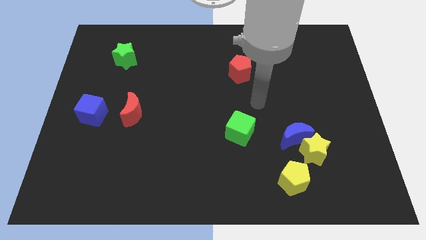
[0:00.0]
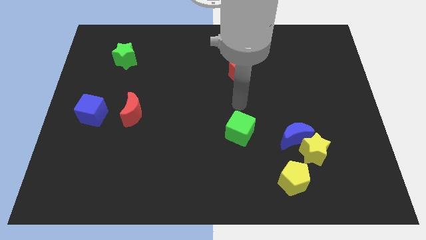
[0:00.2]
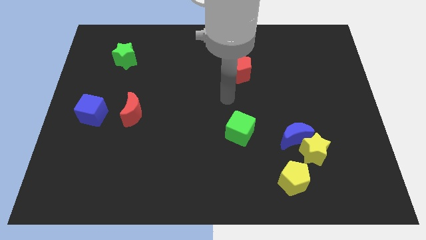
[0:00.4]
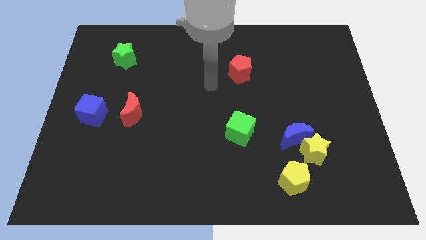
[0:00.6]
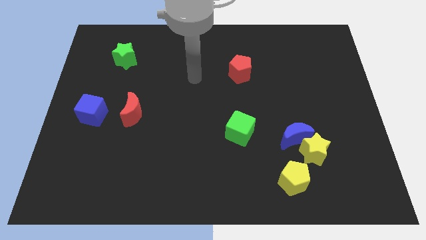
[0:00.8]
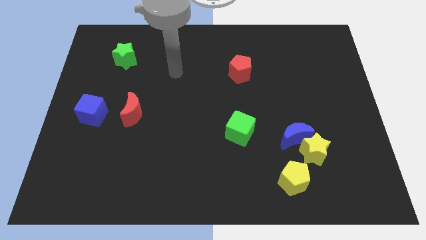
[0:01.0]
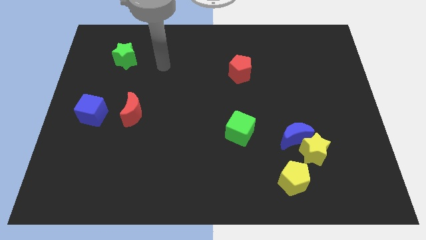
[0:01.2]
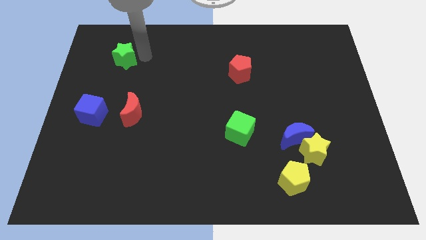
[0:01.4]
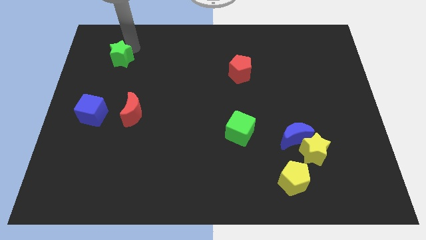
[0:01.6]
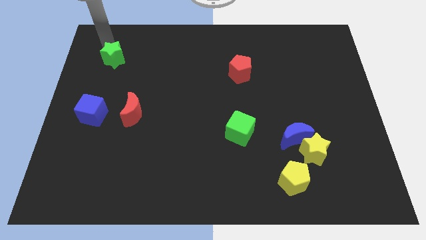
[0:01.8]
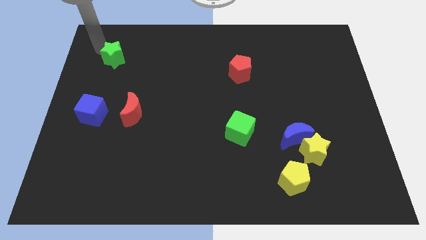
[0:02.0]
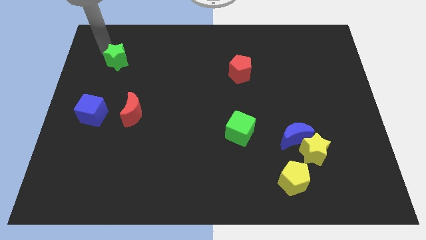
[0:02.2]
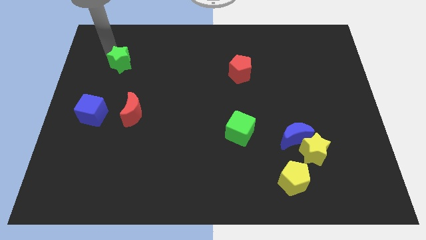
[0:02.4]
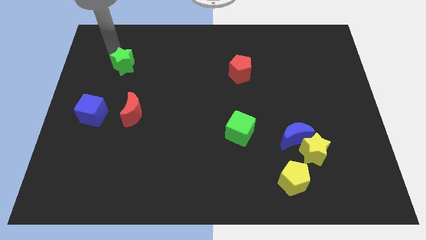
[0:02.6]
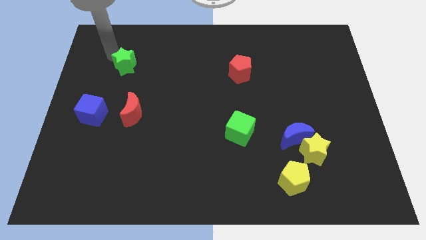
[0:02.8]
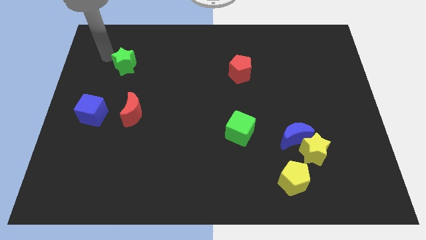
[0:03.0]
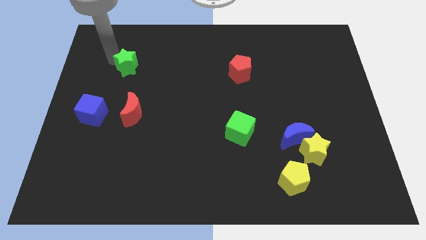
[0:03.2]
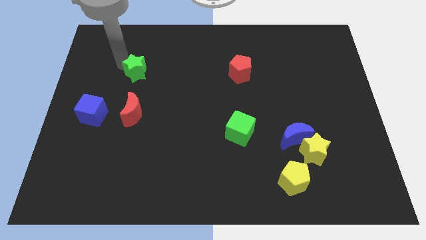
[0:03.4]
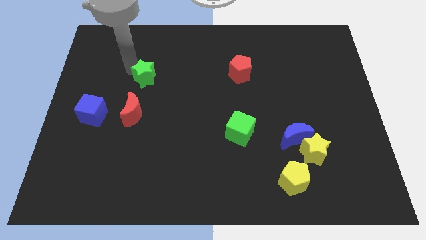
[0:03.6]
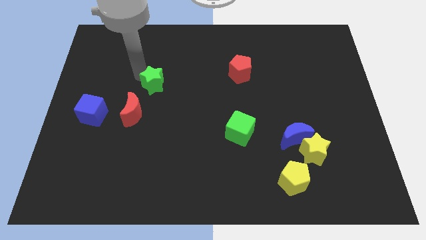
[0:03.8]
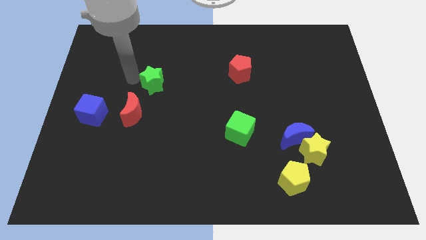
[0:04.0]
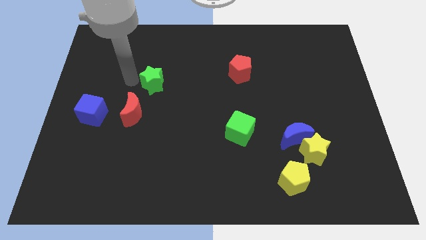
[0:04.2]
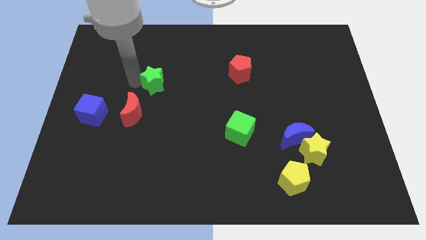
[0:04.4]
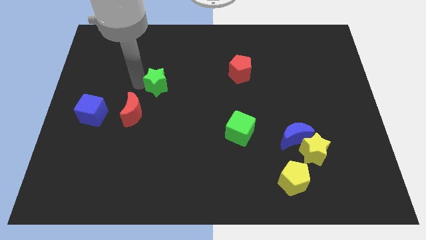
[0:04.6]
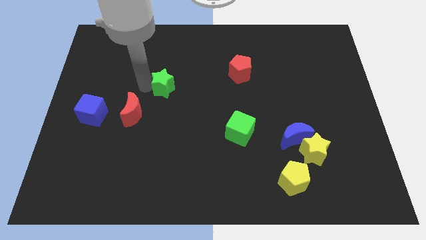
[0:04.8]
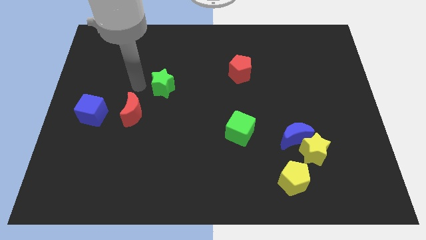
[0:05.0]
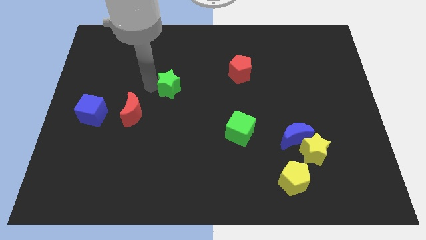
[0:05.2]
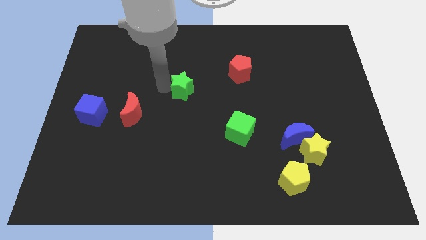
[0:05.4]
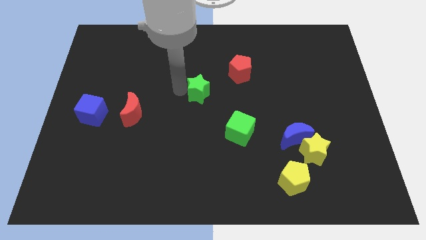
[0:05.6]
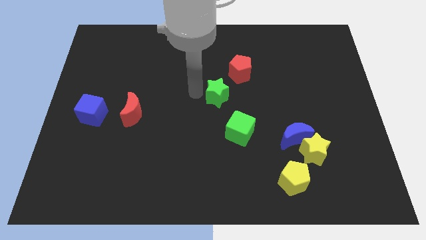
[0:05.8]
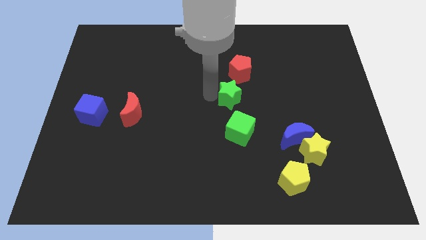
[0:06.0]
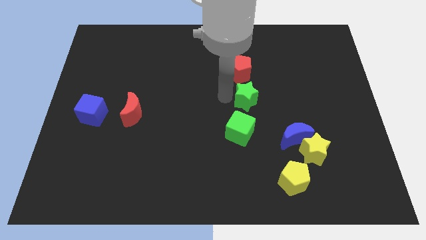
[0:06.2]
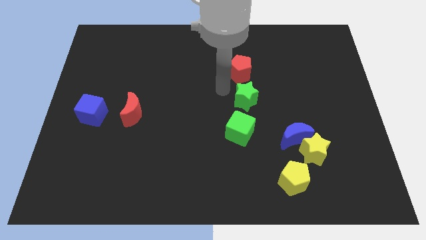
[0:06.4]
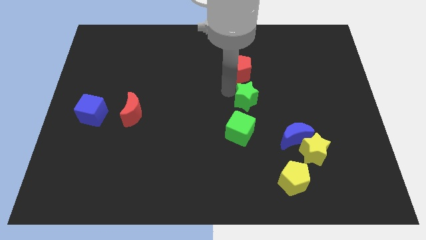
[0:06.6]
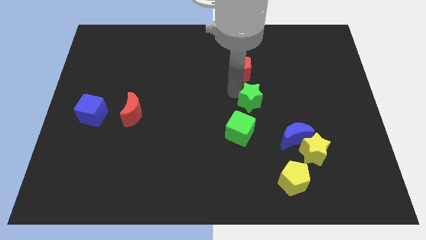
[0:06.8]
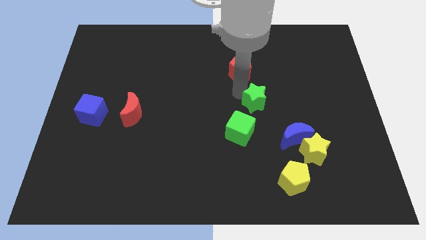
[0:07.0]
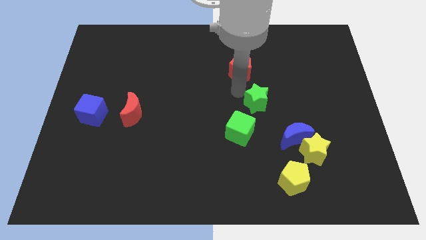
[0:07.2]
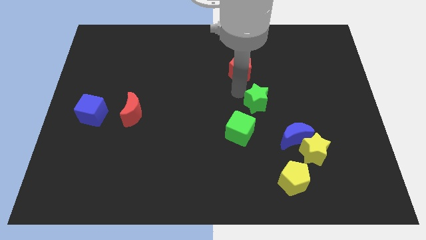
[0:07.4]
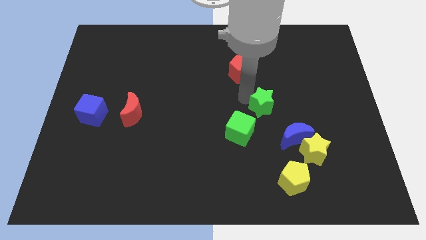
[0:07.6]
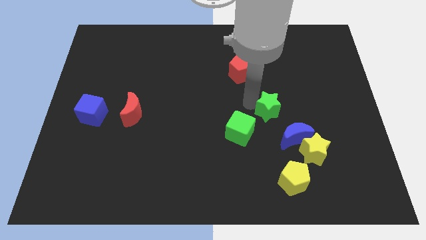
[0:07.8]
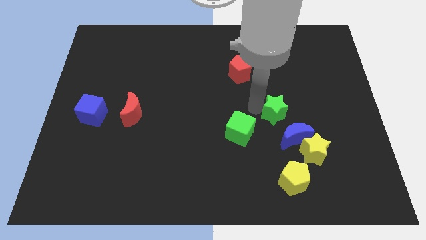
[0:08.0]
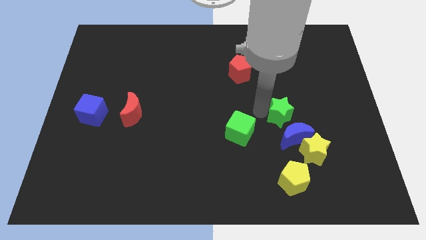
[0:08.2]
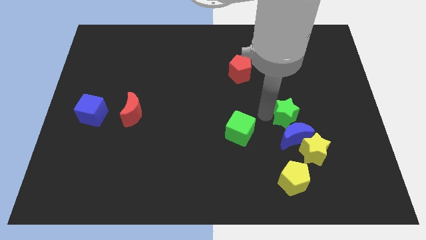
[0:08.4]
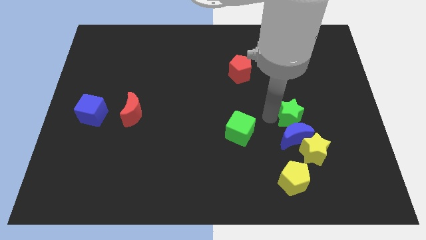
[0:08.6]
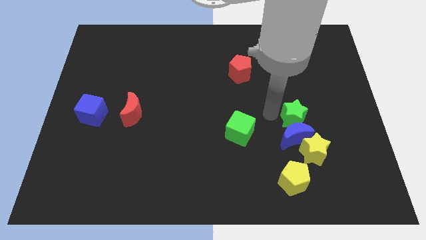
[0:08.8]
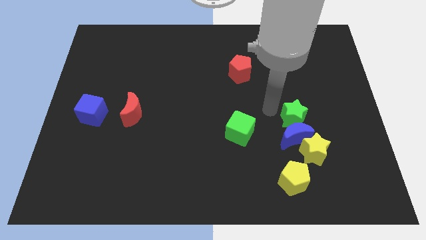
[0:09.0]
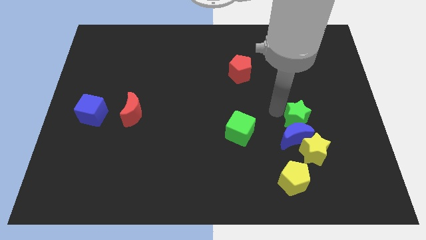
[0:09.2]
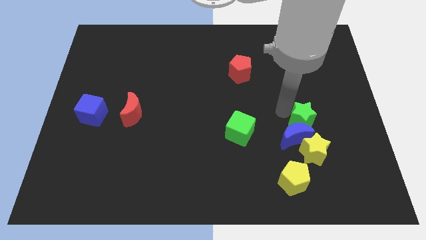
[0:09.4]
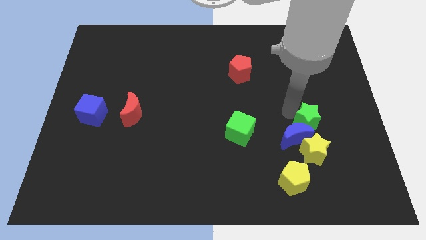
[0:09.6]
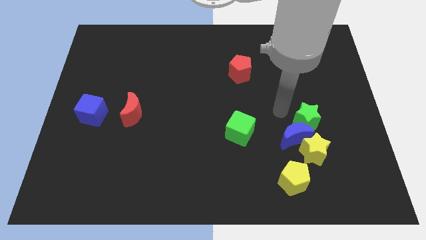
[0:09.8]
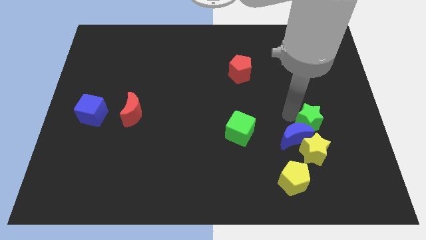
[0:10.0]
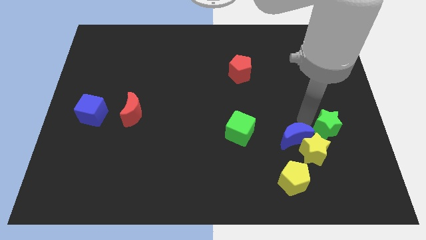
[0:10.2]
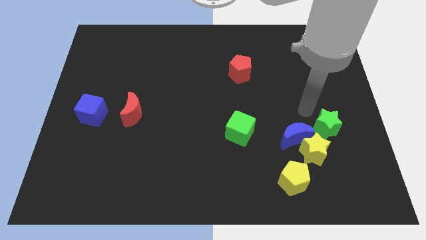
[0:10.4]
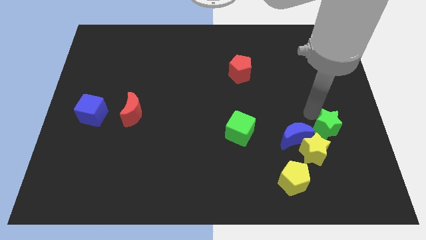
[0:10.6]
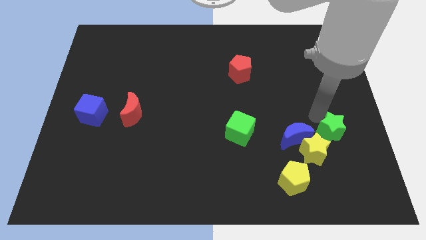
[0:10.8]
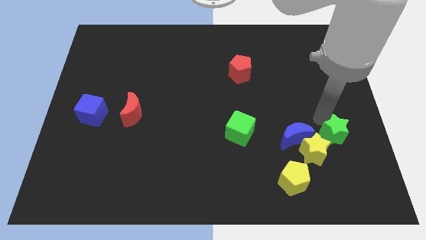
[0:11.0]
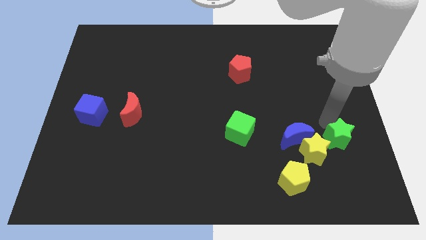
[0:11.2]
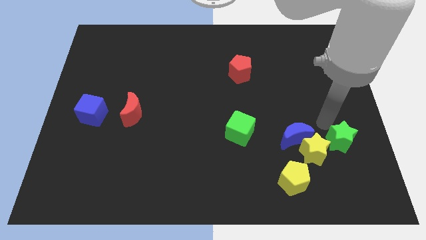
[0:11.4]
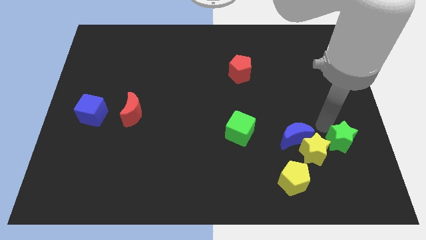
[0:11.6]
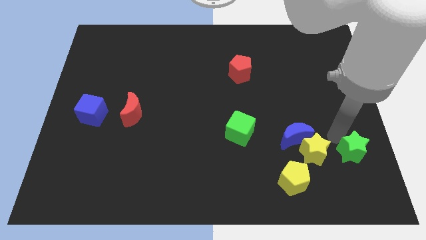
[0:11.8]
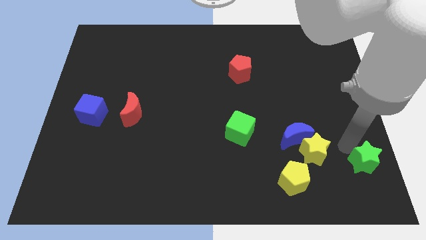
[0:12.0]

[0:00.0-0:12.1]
push the green star to the bottom right of the board
